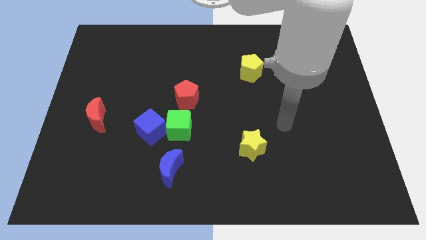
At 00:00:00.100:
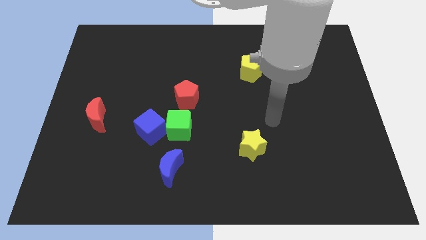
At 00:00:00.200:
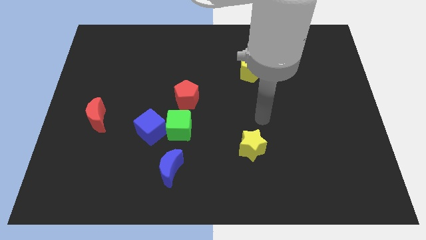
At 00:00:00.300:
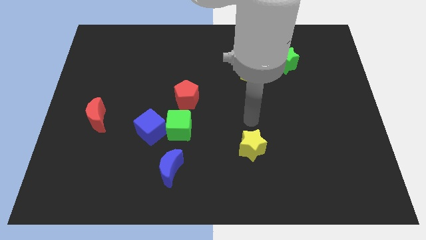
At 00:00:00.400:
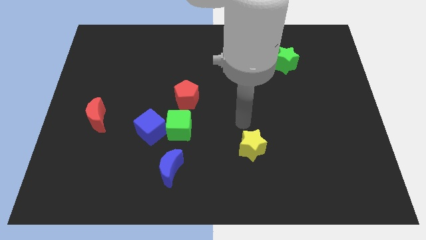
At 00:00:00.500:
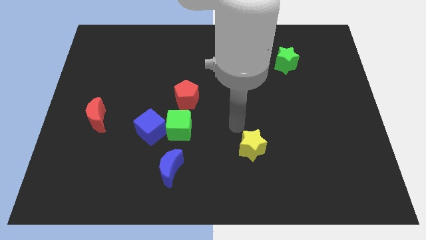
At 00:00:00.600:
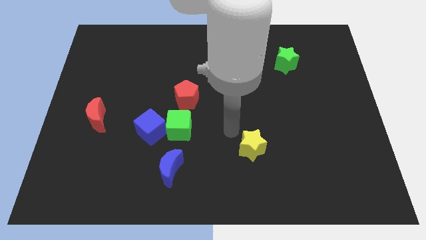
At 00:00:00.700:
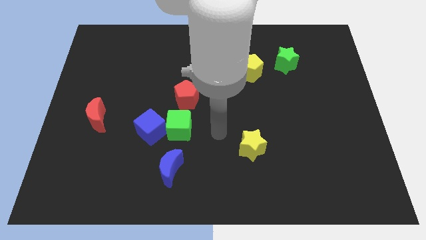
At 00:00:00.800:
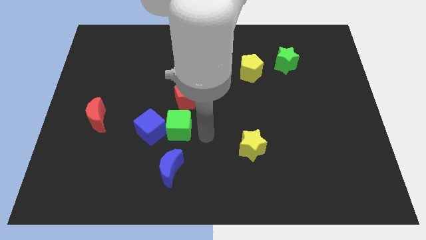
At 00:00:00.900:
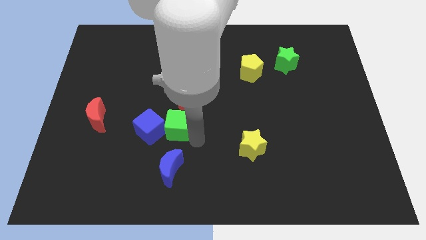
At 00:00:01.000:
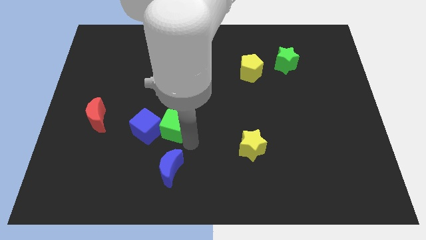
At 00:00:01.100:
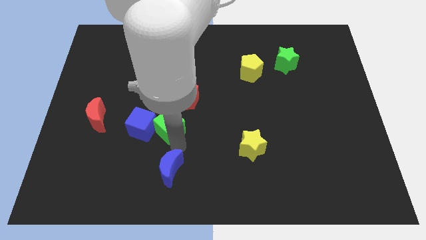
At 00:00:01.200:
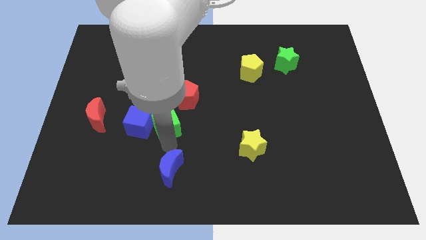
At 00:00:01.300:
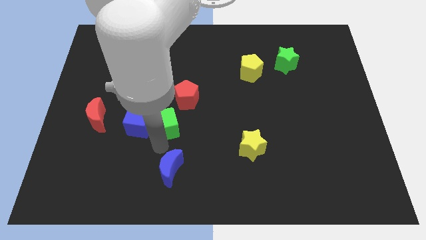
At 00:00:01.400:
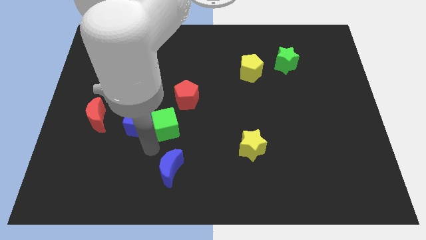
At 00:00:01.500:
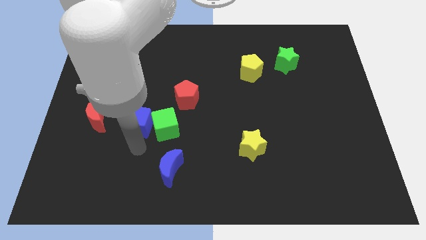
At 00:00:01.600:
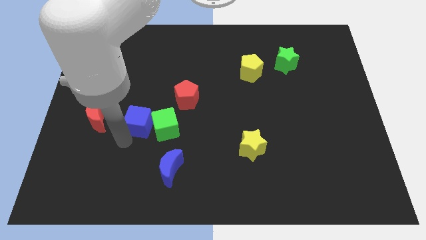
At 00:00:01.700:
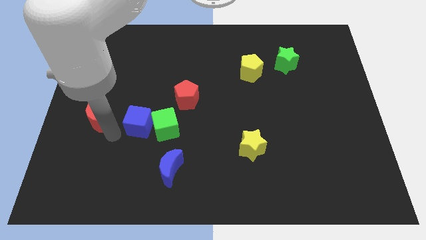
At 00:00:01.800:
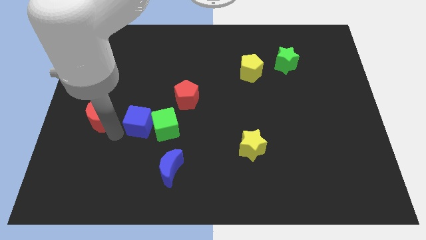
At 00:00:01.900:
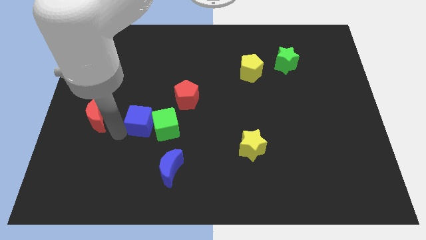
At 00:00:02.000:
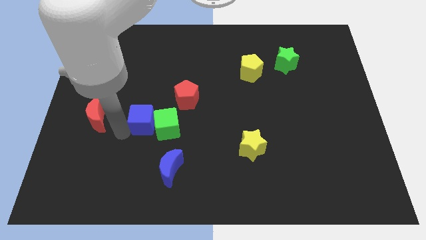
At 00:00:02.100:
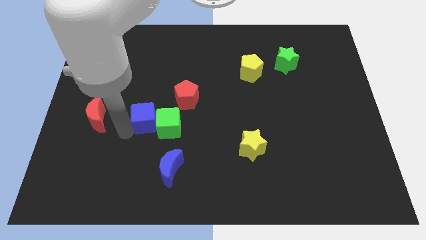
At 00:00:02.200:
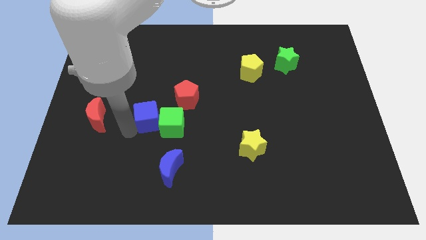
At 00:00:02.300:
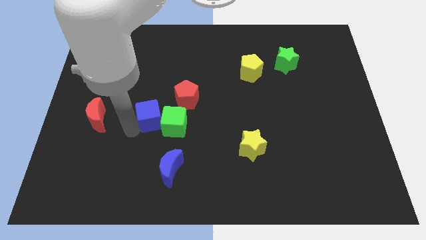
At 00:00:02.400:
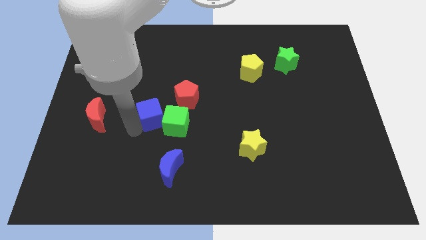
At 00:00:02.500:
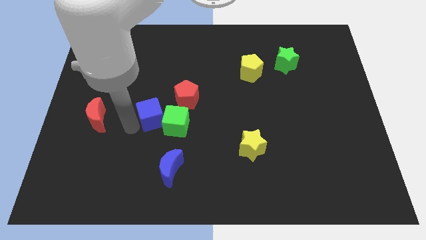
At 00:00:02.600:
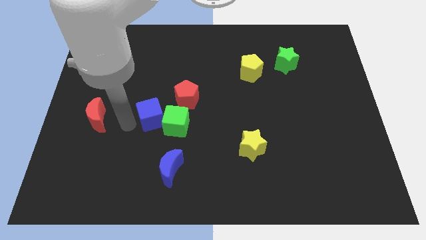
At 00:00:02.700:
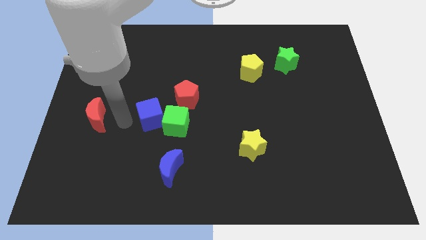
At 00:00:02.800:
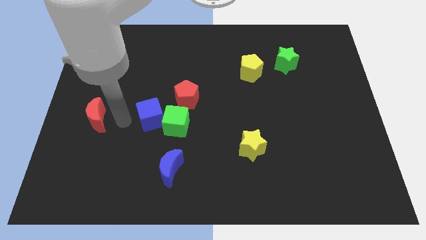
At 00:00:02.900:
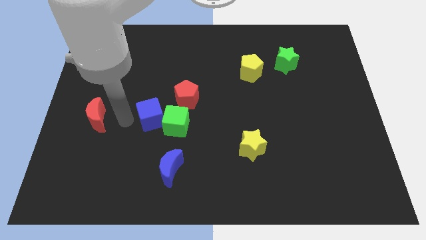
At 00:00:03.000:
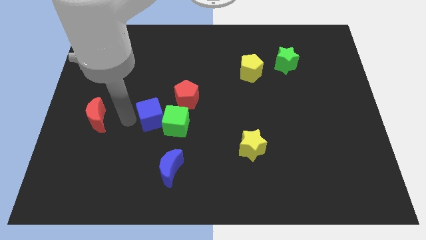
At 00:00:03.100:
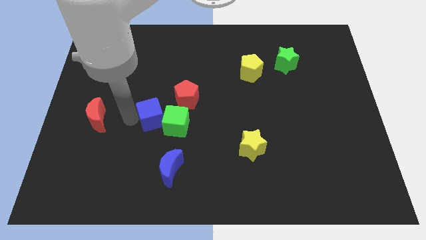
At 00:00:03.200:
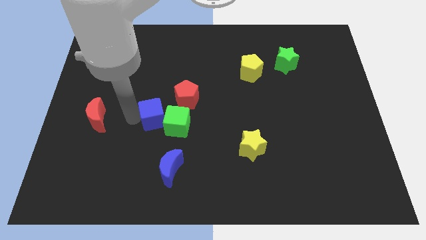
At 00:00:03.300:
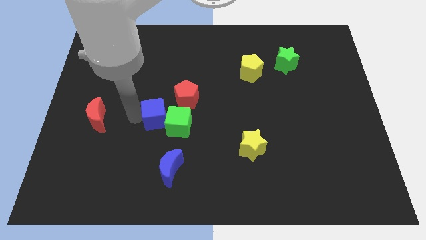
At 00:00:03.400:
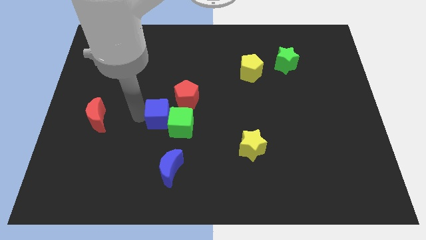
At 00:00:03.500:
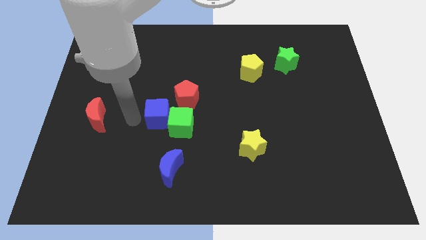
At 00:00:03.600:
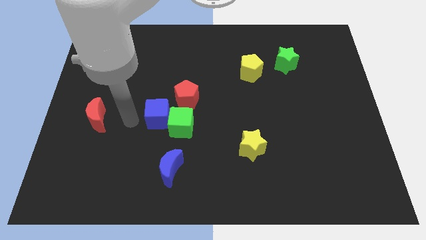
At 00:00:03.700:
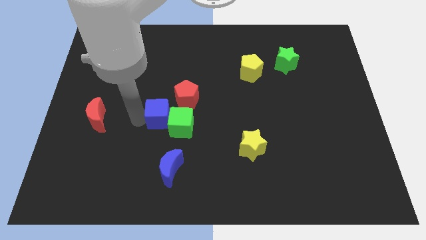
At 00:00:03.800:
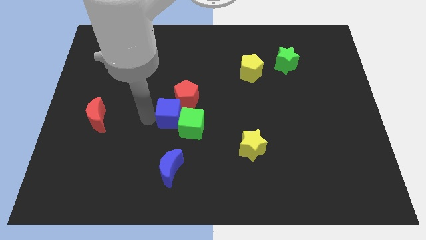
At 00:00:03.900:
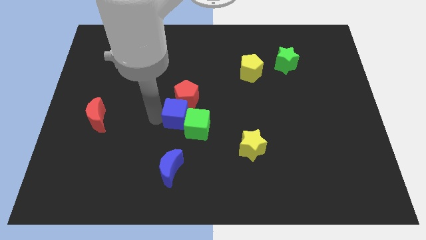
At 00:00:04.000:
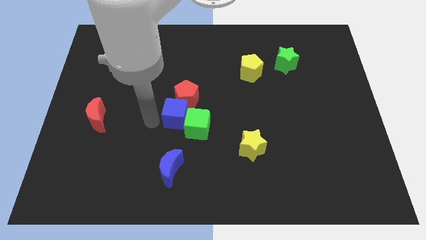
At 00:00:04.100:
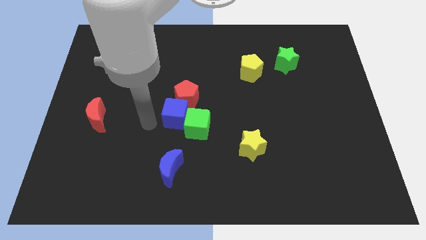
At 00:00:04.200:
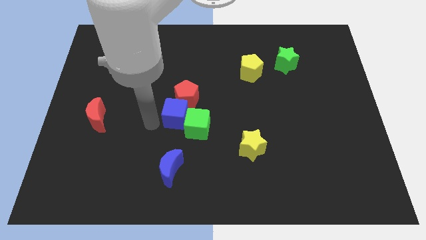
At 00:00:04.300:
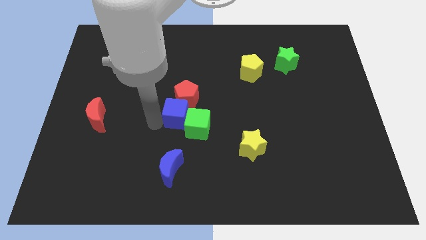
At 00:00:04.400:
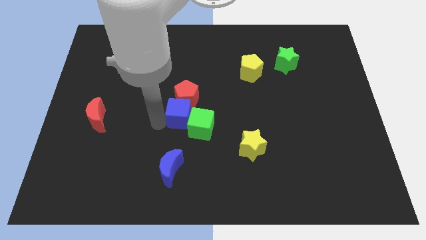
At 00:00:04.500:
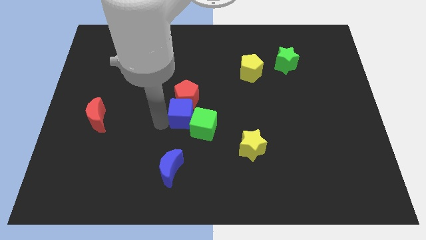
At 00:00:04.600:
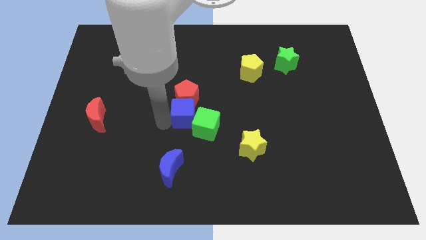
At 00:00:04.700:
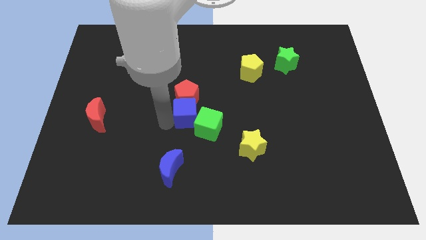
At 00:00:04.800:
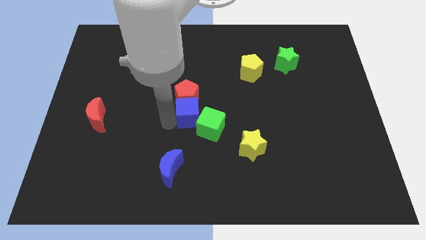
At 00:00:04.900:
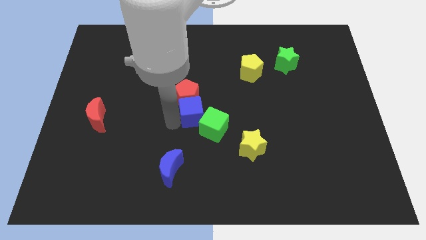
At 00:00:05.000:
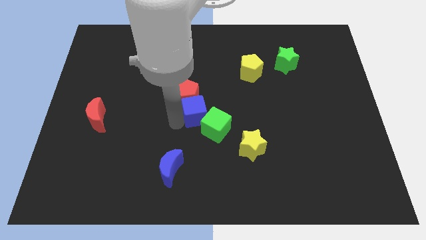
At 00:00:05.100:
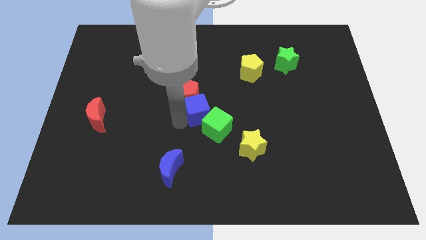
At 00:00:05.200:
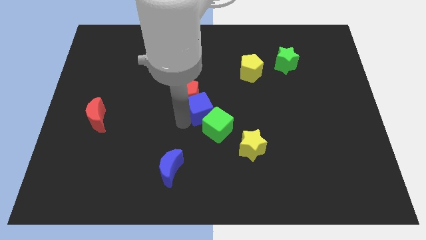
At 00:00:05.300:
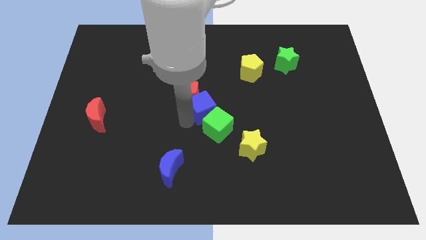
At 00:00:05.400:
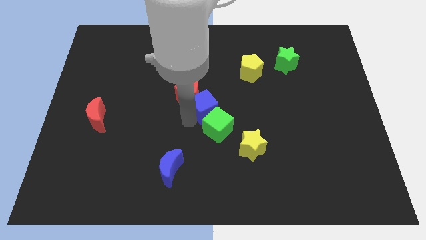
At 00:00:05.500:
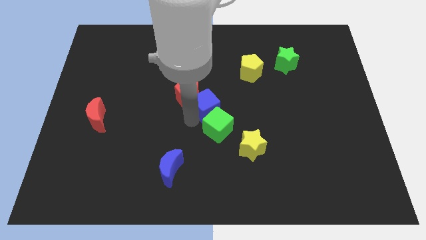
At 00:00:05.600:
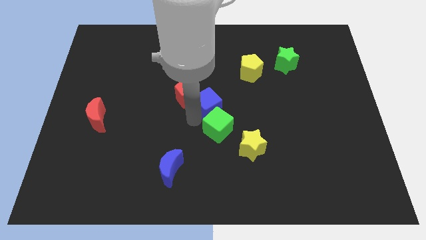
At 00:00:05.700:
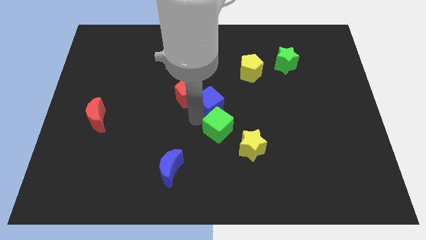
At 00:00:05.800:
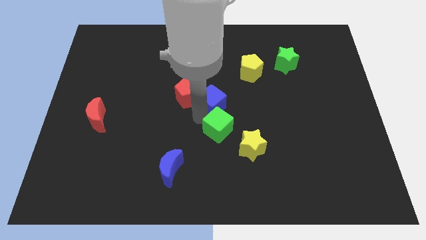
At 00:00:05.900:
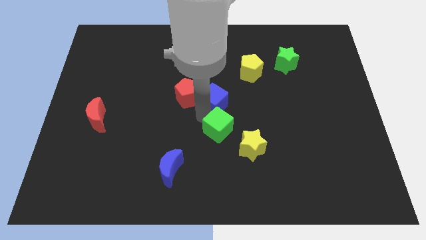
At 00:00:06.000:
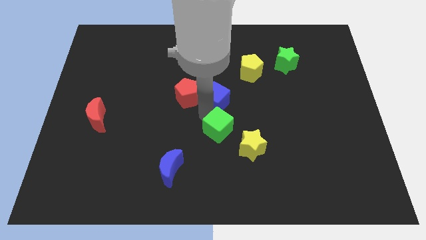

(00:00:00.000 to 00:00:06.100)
slide the blue cube diagonally down and to the left of the yellow pentagon
